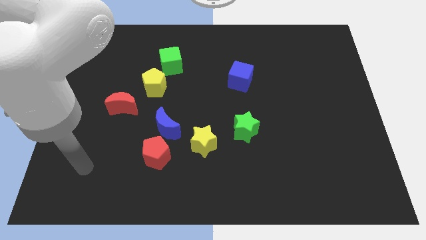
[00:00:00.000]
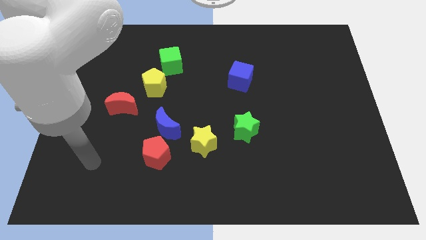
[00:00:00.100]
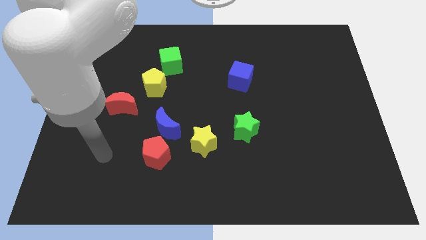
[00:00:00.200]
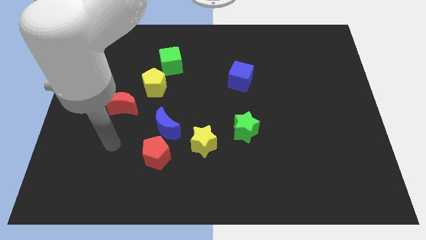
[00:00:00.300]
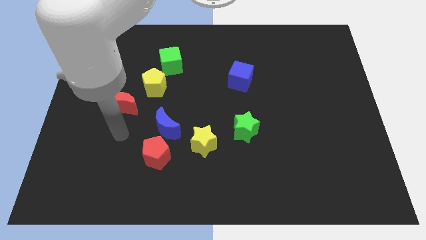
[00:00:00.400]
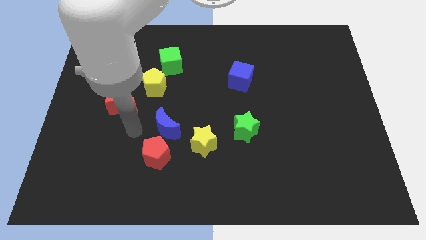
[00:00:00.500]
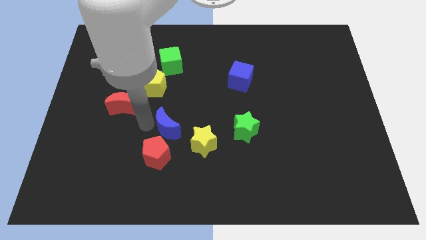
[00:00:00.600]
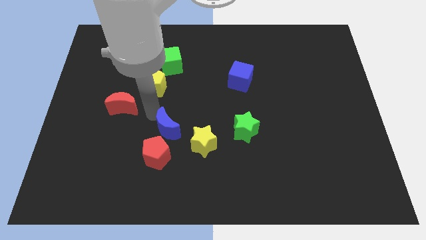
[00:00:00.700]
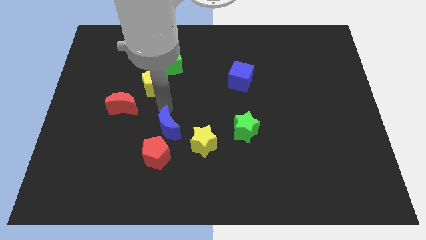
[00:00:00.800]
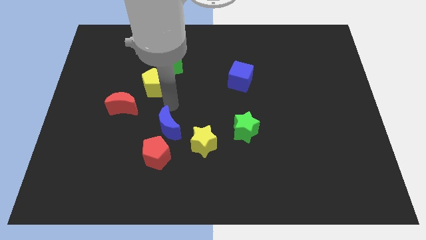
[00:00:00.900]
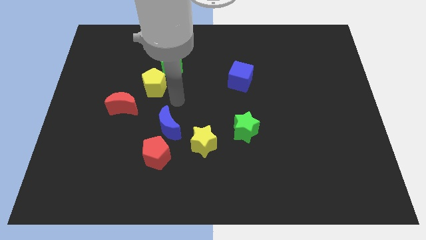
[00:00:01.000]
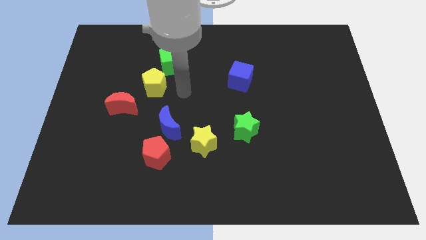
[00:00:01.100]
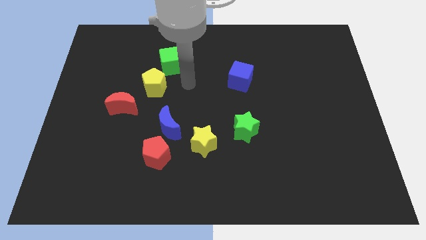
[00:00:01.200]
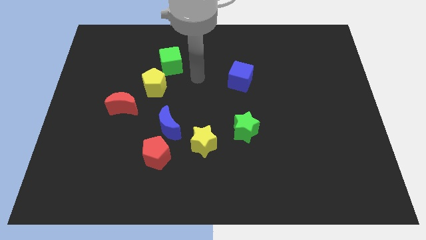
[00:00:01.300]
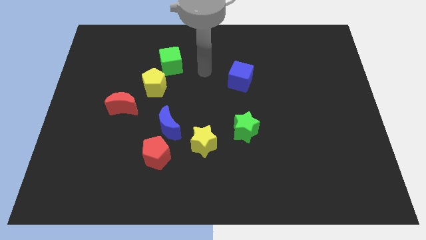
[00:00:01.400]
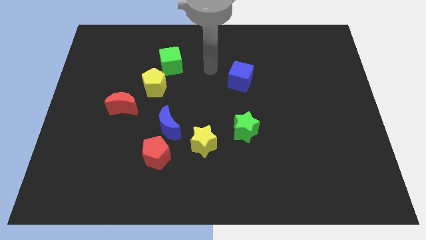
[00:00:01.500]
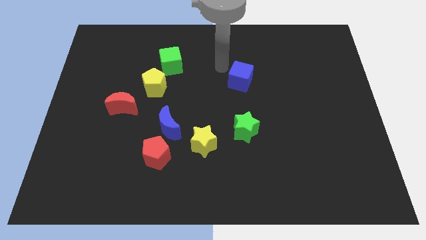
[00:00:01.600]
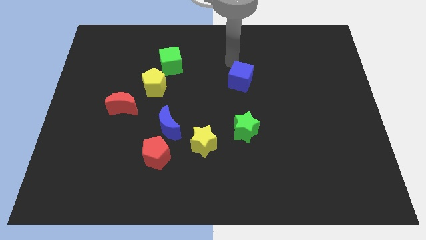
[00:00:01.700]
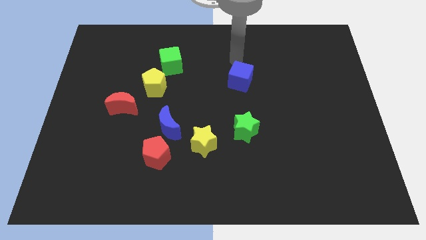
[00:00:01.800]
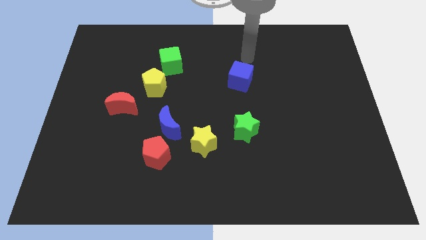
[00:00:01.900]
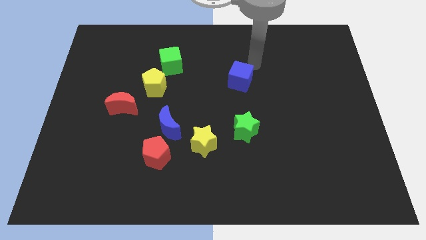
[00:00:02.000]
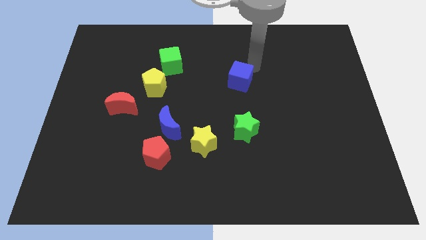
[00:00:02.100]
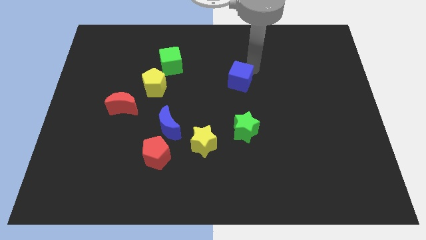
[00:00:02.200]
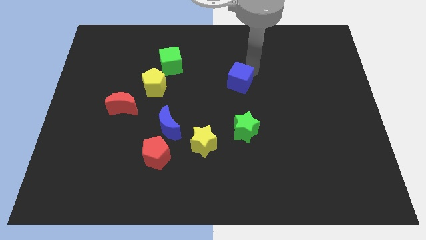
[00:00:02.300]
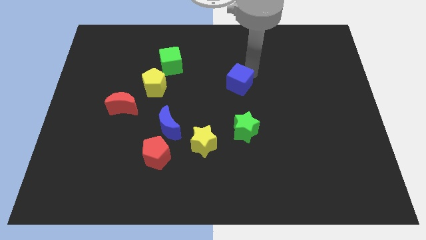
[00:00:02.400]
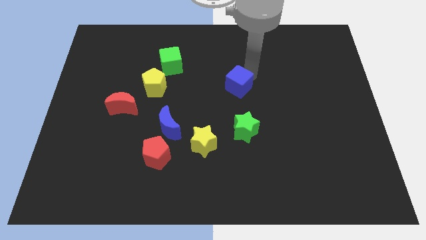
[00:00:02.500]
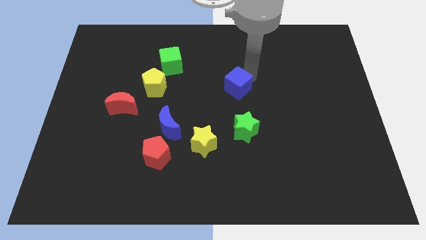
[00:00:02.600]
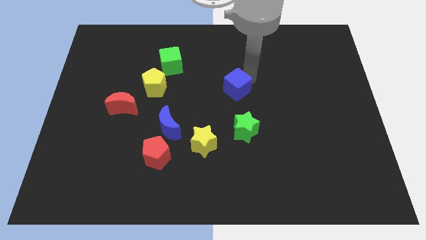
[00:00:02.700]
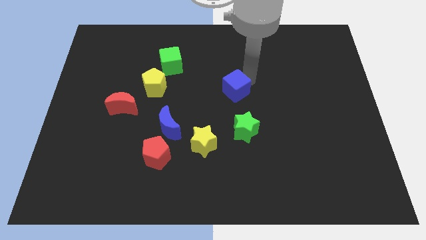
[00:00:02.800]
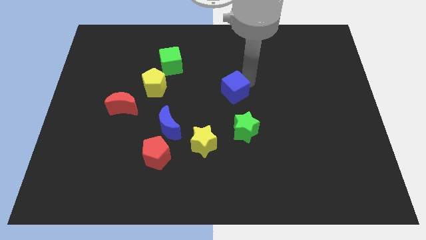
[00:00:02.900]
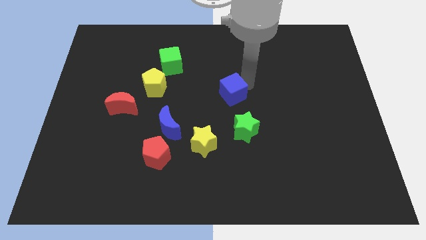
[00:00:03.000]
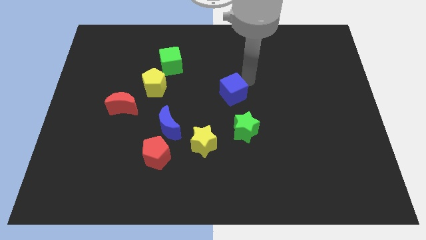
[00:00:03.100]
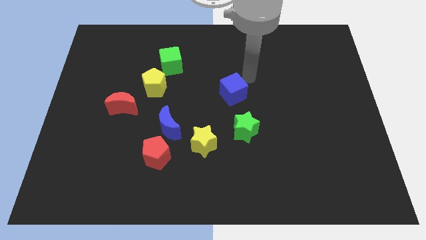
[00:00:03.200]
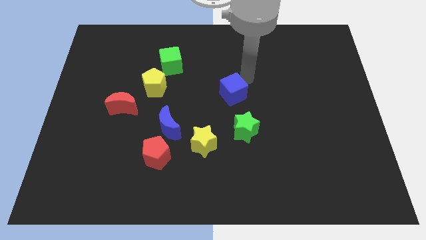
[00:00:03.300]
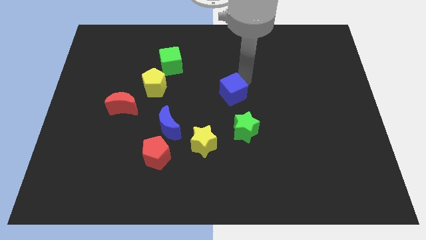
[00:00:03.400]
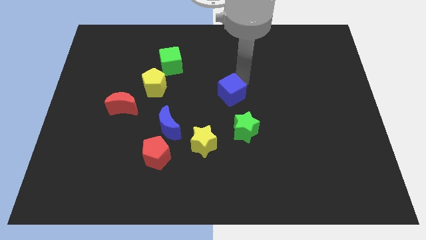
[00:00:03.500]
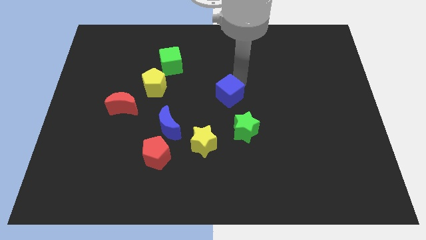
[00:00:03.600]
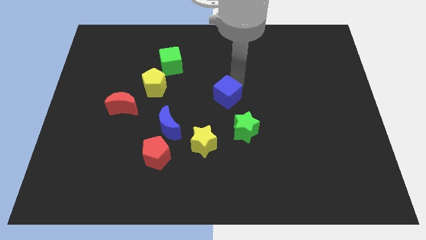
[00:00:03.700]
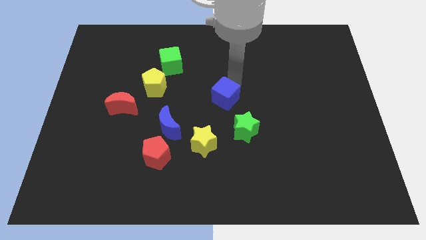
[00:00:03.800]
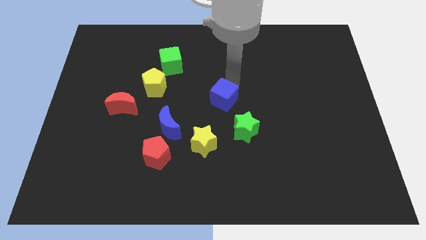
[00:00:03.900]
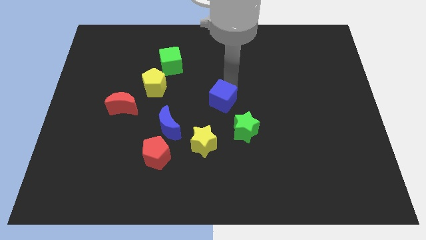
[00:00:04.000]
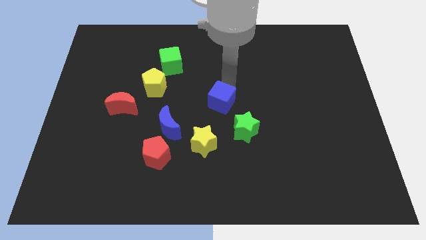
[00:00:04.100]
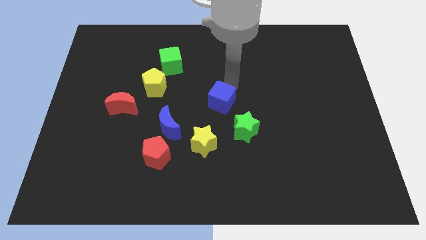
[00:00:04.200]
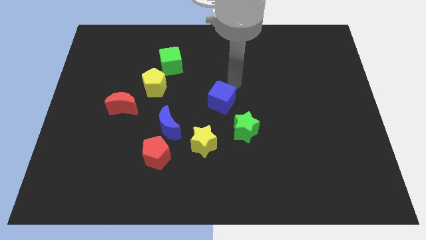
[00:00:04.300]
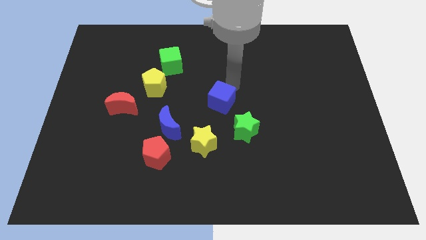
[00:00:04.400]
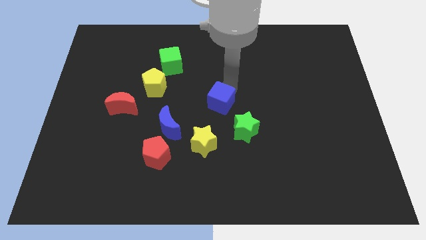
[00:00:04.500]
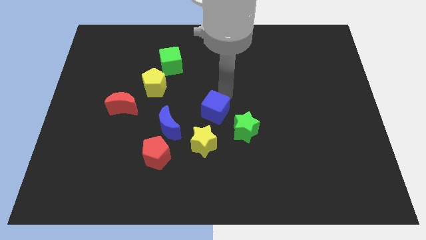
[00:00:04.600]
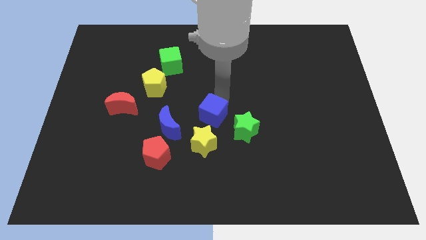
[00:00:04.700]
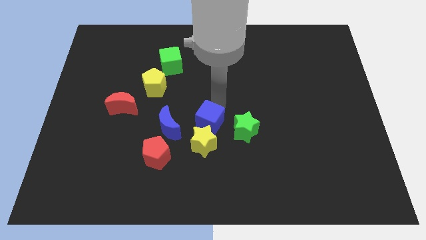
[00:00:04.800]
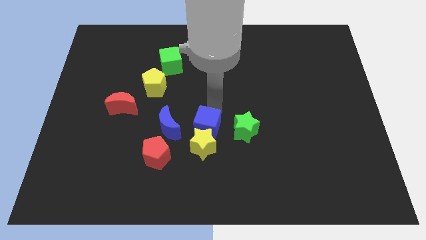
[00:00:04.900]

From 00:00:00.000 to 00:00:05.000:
put the blue cube close to the yellow star

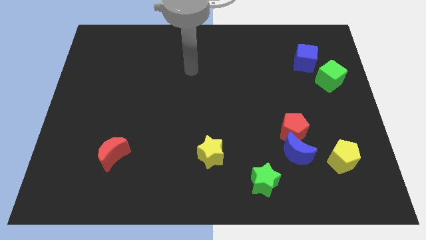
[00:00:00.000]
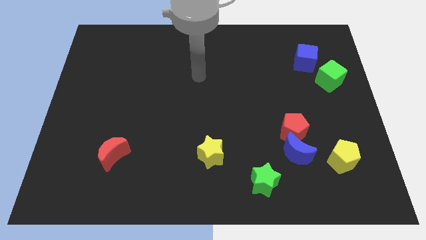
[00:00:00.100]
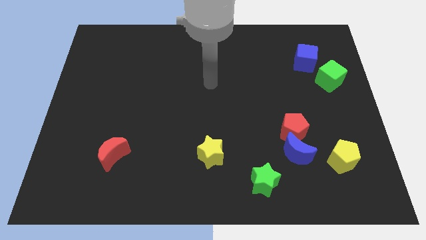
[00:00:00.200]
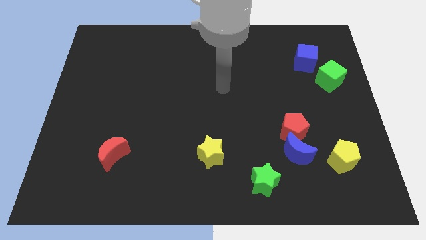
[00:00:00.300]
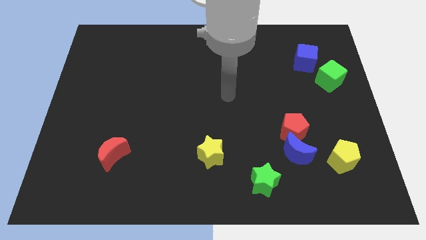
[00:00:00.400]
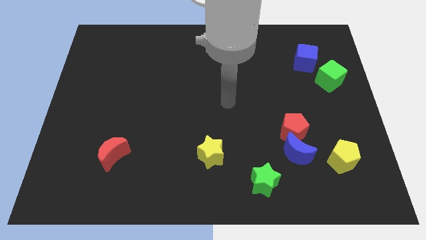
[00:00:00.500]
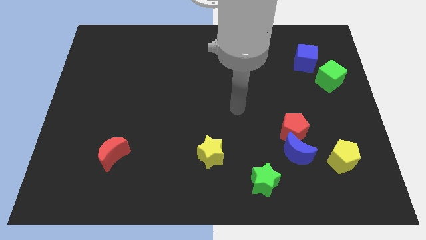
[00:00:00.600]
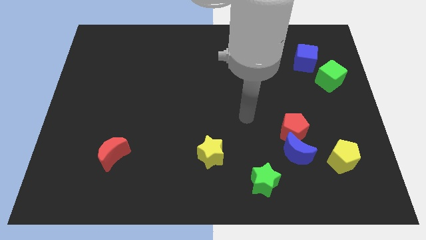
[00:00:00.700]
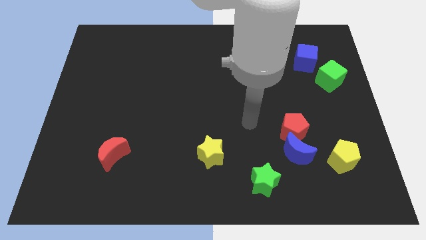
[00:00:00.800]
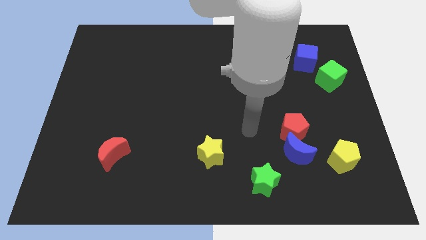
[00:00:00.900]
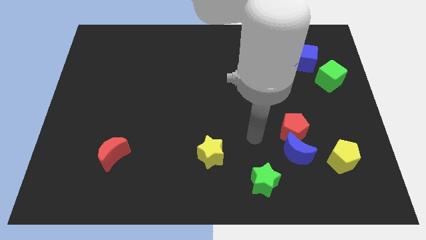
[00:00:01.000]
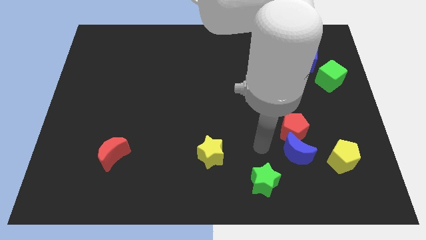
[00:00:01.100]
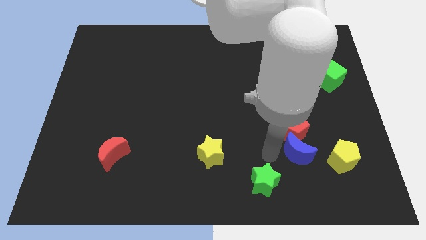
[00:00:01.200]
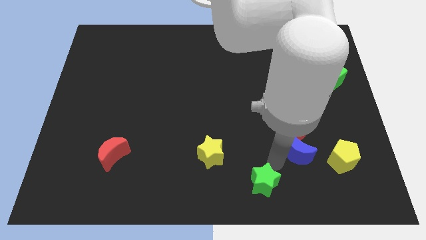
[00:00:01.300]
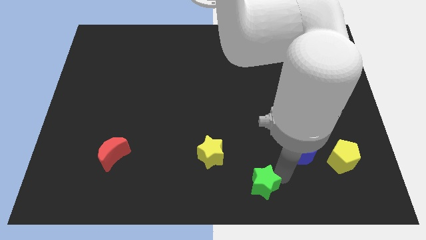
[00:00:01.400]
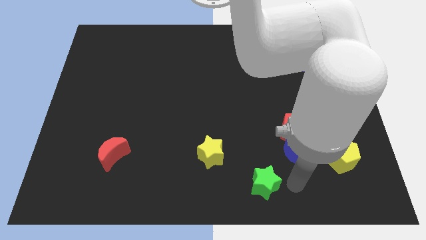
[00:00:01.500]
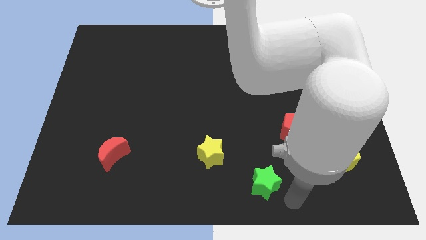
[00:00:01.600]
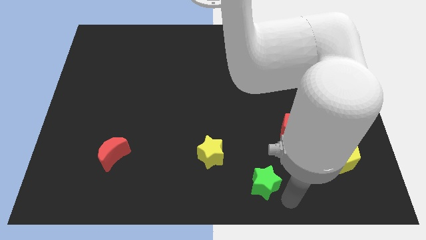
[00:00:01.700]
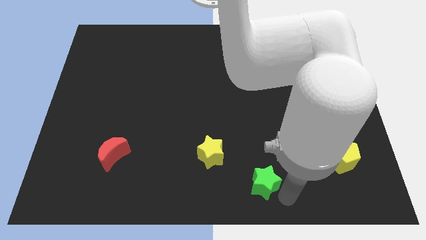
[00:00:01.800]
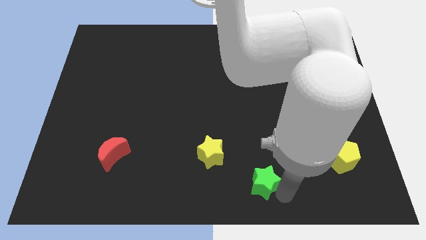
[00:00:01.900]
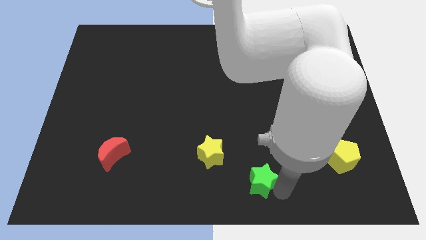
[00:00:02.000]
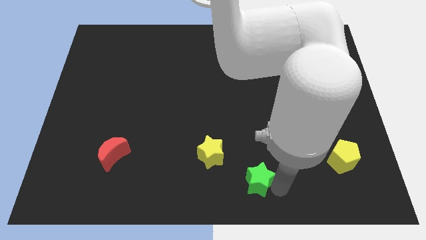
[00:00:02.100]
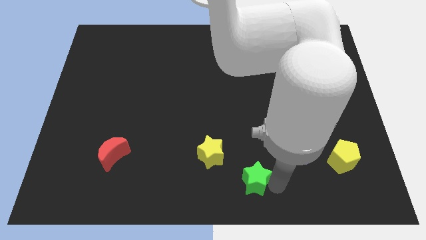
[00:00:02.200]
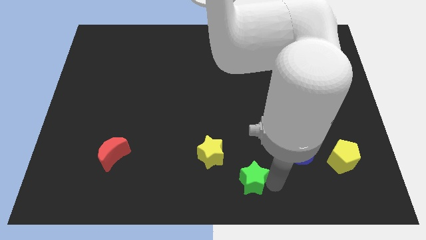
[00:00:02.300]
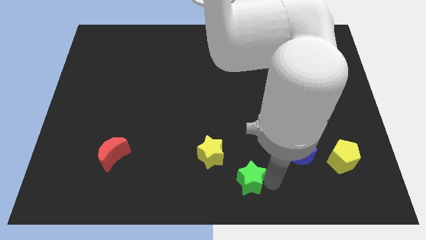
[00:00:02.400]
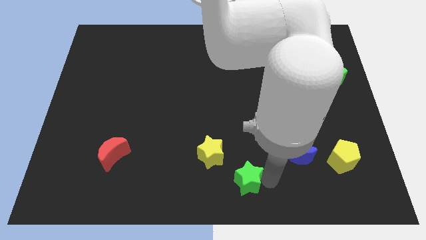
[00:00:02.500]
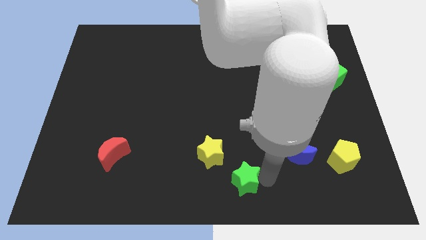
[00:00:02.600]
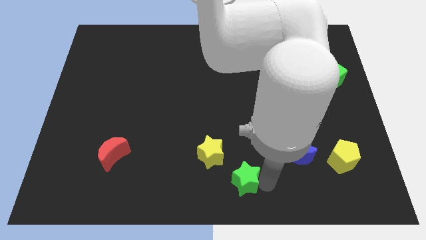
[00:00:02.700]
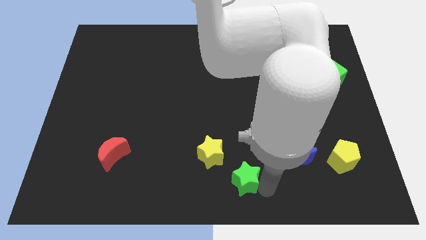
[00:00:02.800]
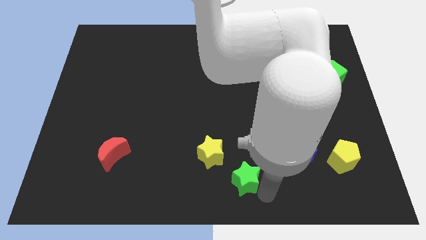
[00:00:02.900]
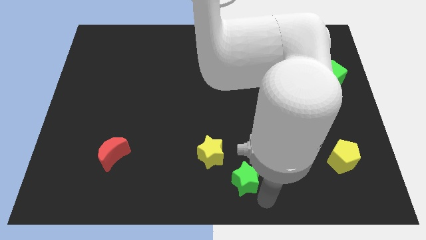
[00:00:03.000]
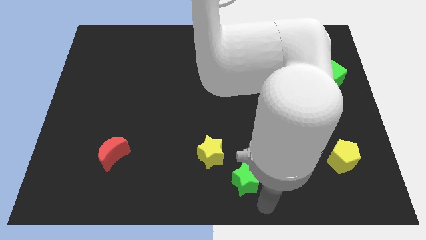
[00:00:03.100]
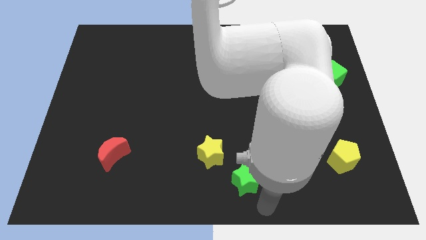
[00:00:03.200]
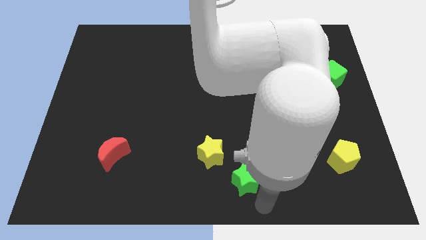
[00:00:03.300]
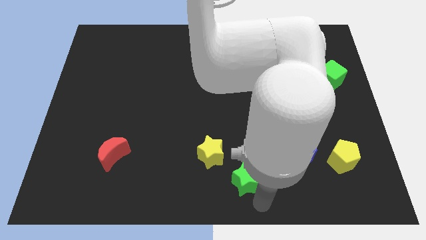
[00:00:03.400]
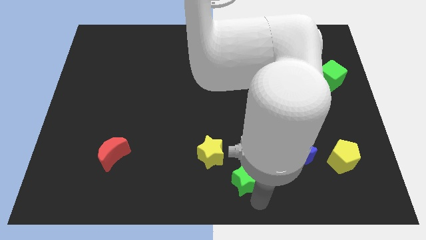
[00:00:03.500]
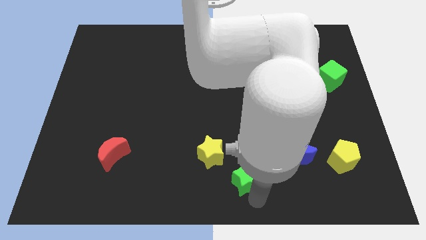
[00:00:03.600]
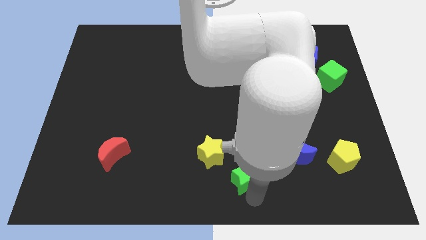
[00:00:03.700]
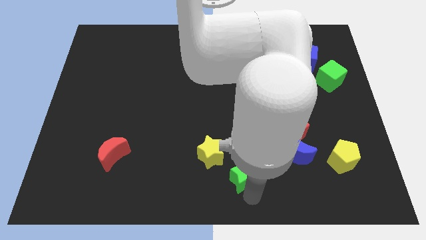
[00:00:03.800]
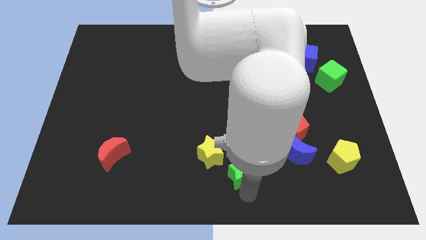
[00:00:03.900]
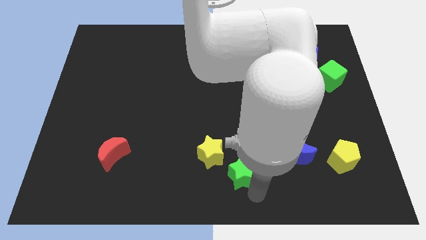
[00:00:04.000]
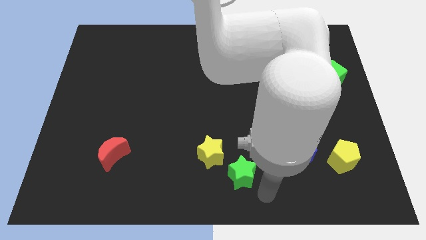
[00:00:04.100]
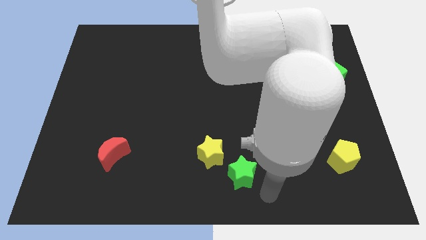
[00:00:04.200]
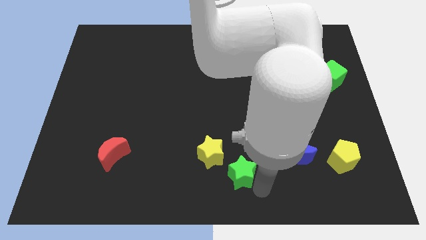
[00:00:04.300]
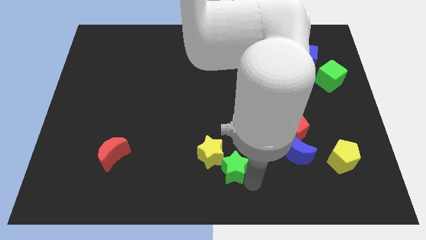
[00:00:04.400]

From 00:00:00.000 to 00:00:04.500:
slide the green star to the yellow star
